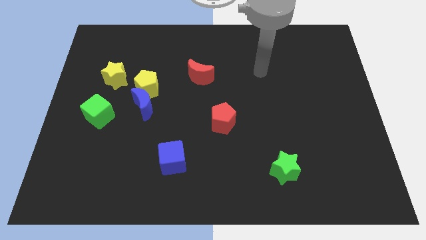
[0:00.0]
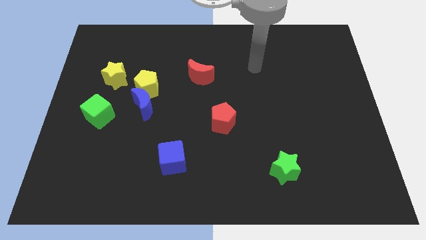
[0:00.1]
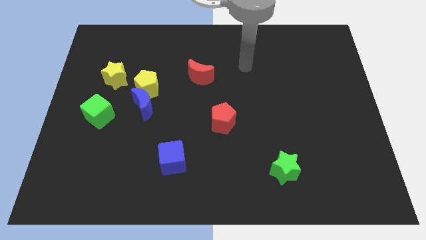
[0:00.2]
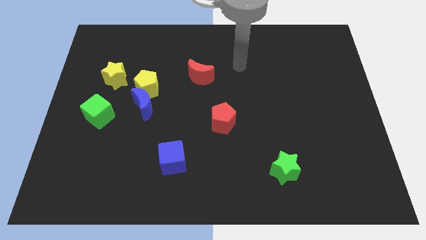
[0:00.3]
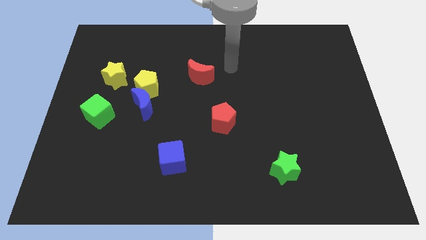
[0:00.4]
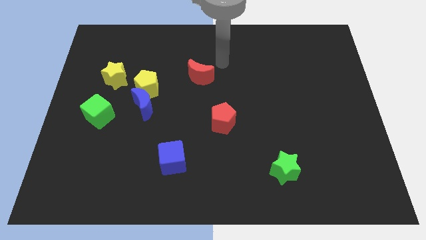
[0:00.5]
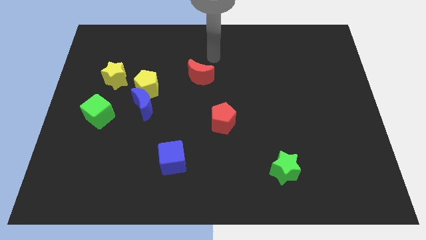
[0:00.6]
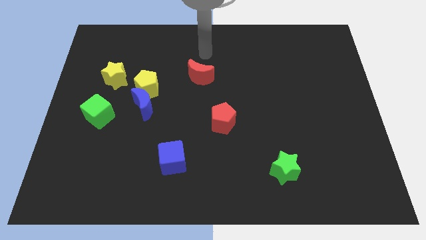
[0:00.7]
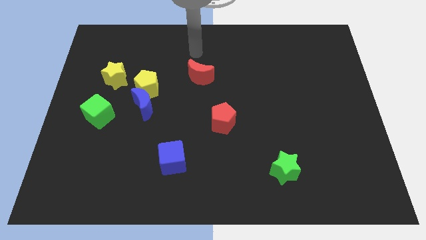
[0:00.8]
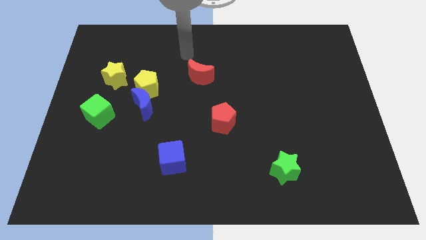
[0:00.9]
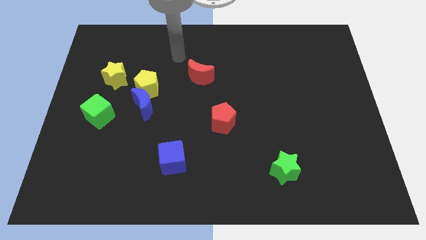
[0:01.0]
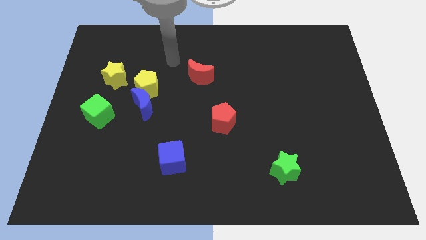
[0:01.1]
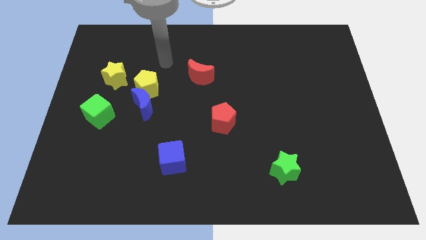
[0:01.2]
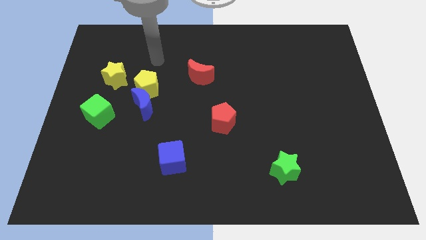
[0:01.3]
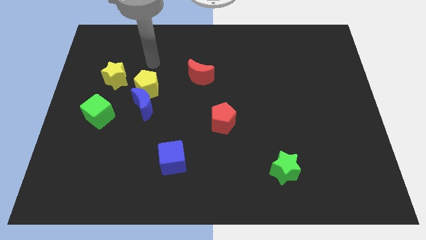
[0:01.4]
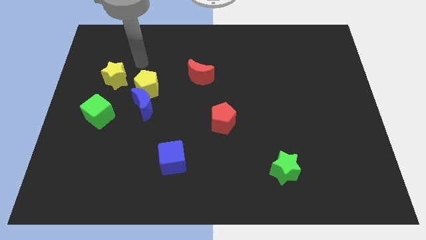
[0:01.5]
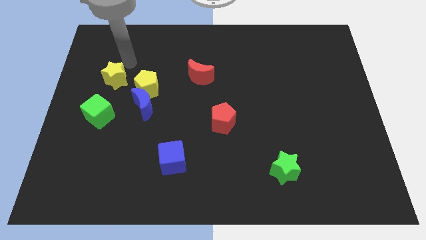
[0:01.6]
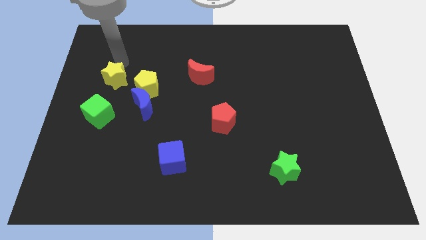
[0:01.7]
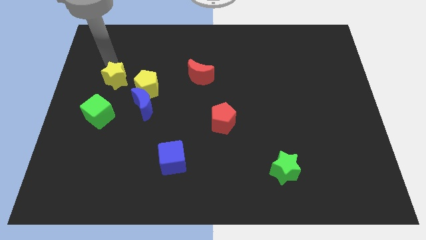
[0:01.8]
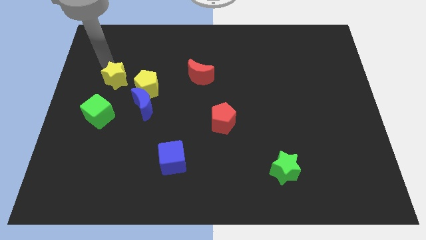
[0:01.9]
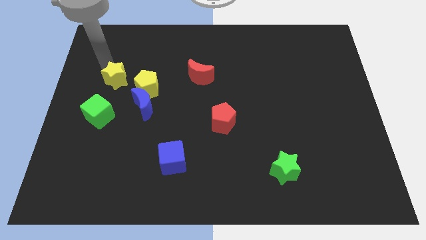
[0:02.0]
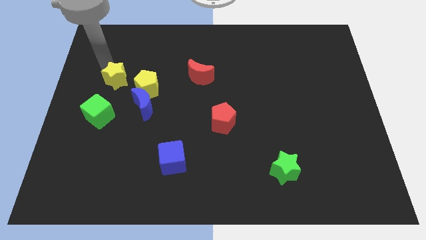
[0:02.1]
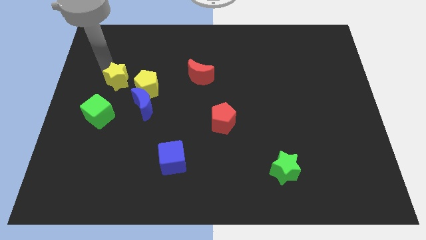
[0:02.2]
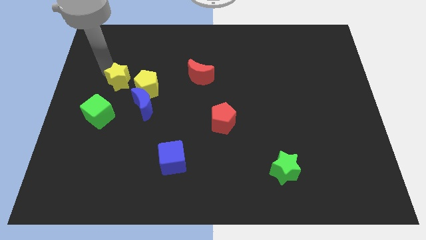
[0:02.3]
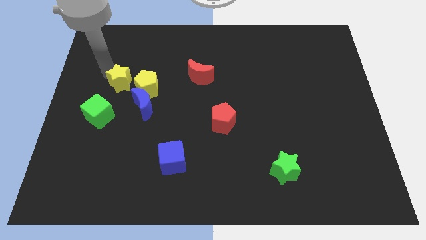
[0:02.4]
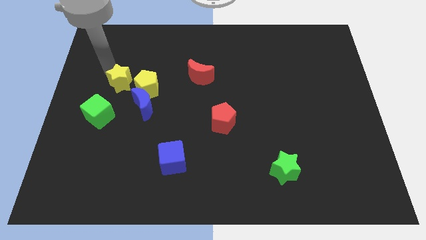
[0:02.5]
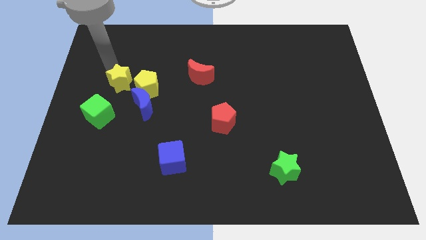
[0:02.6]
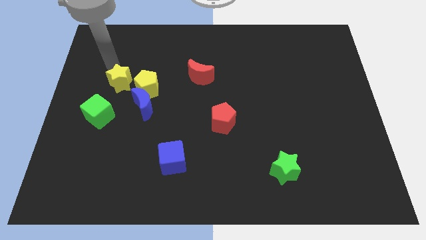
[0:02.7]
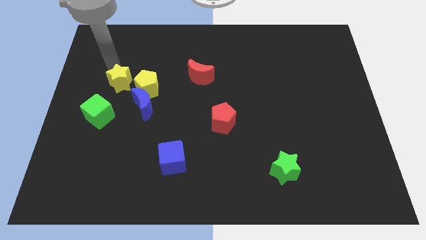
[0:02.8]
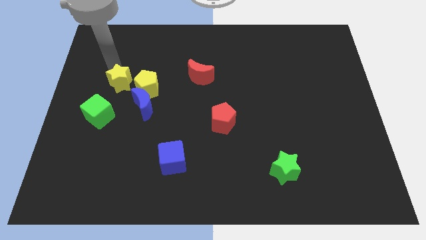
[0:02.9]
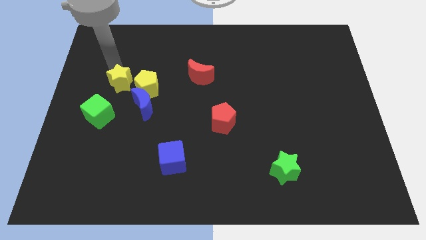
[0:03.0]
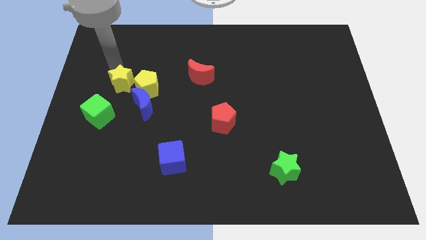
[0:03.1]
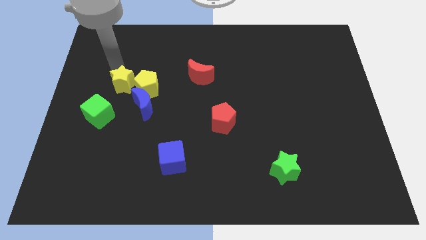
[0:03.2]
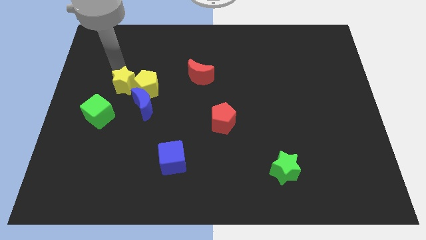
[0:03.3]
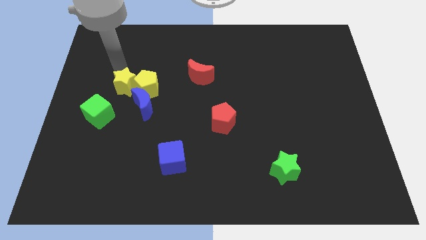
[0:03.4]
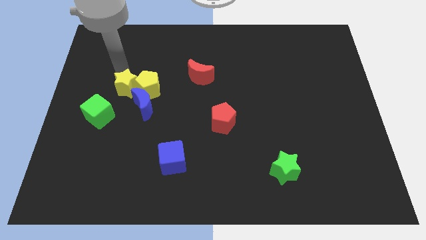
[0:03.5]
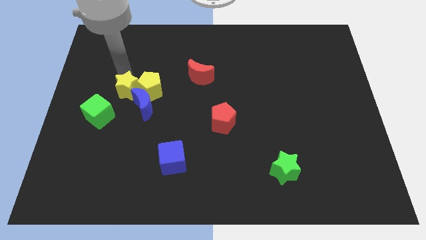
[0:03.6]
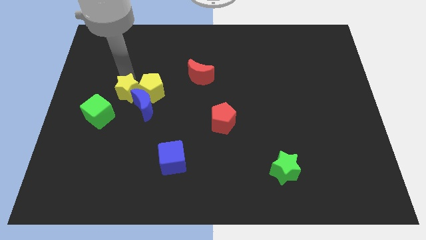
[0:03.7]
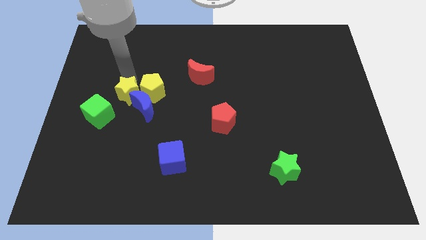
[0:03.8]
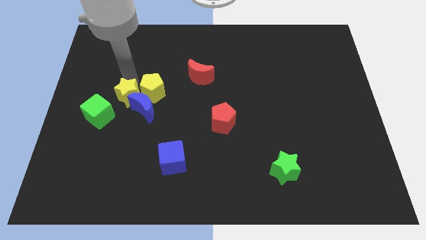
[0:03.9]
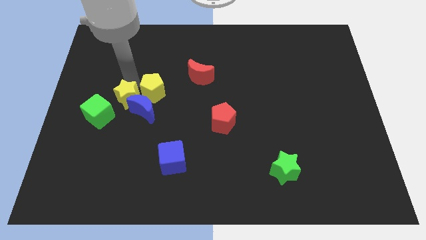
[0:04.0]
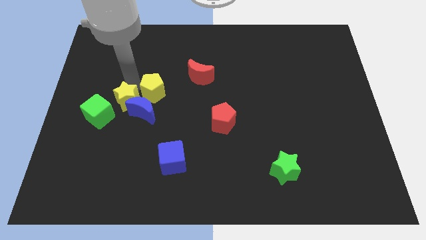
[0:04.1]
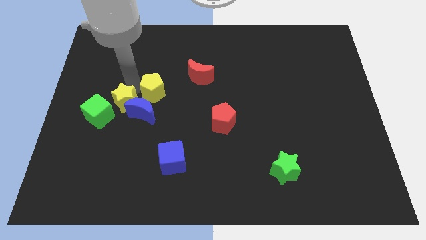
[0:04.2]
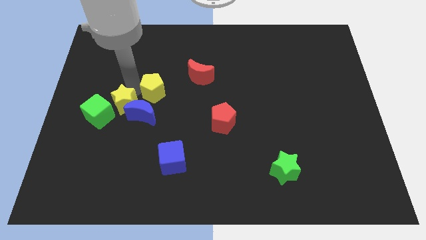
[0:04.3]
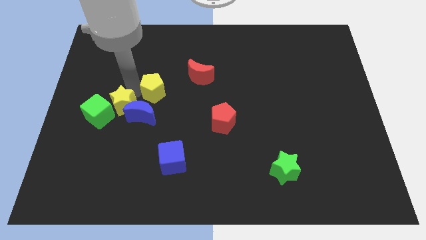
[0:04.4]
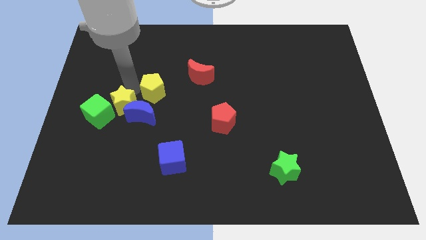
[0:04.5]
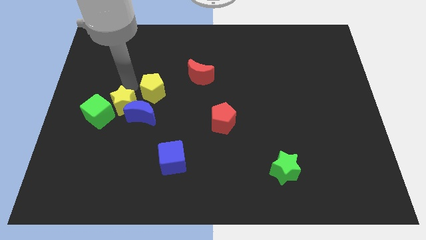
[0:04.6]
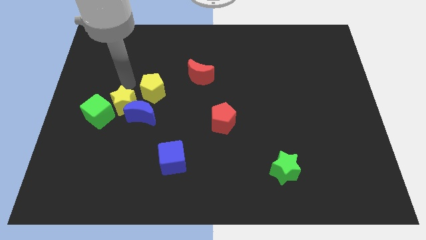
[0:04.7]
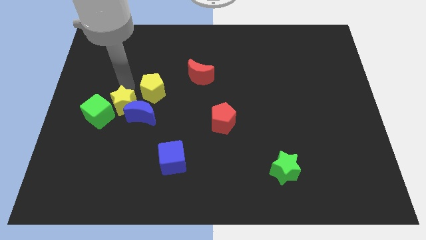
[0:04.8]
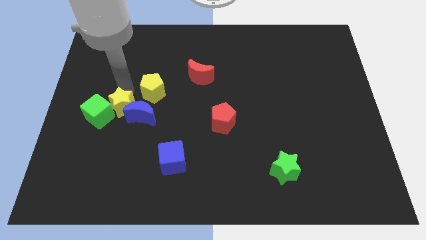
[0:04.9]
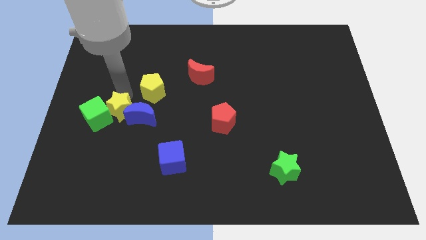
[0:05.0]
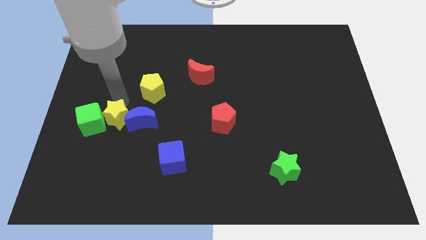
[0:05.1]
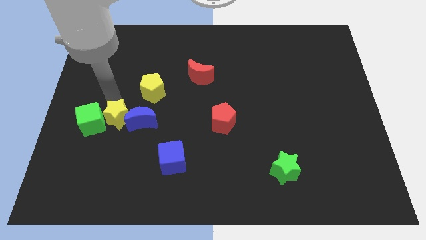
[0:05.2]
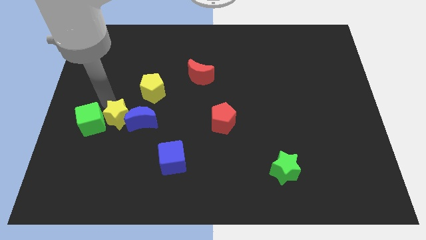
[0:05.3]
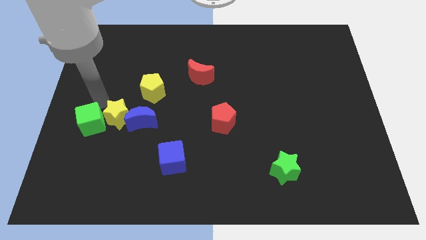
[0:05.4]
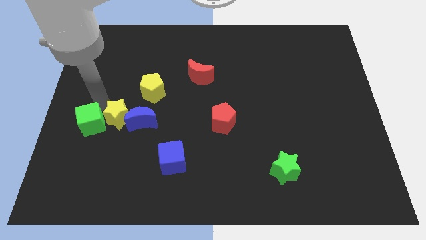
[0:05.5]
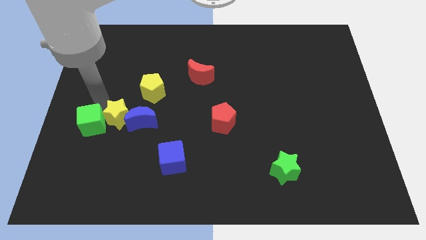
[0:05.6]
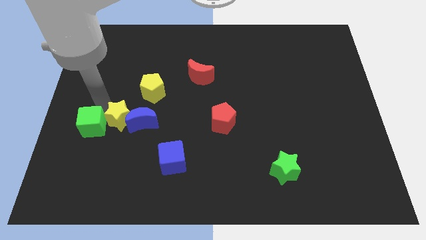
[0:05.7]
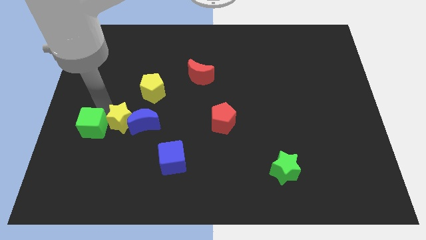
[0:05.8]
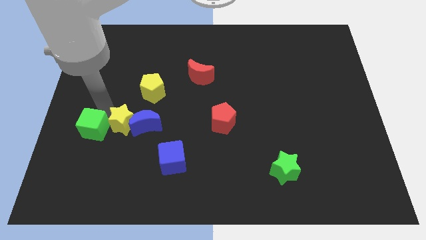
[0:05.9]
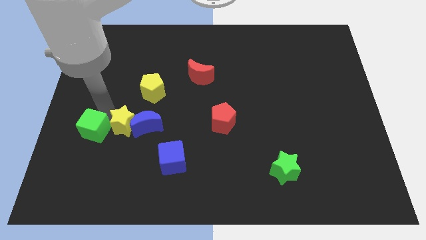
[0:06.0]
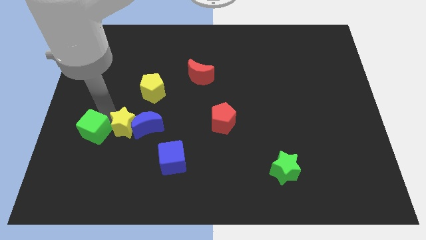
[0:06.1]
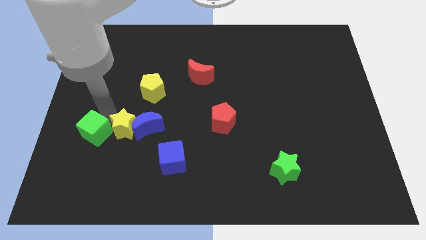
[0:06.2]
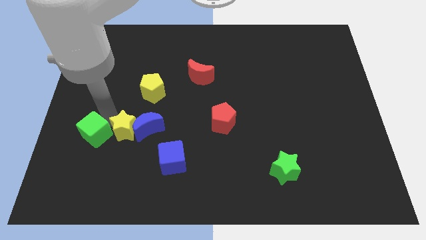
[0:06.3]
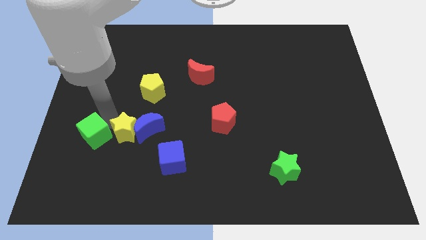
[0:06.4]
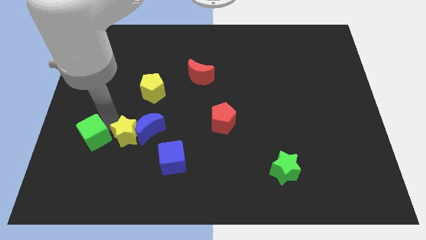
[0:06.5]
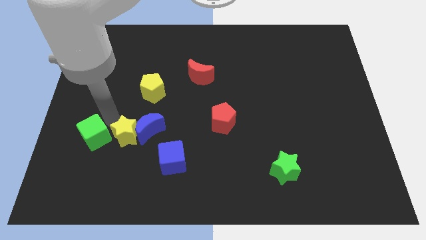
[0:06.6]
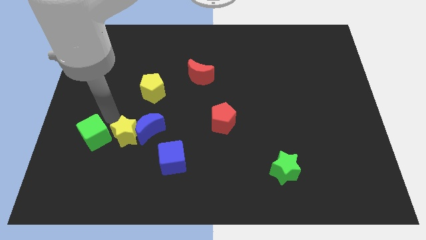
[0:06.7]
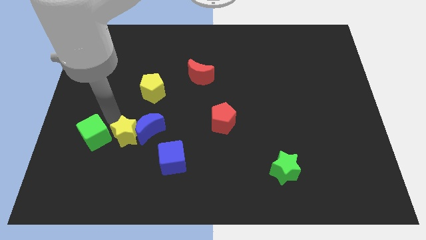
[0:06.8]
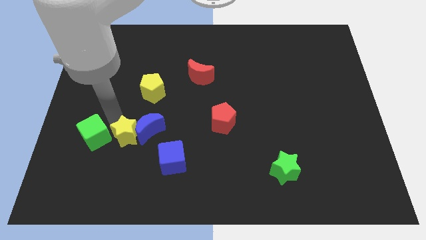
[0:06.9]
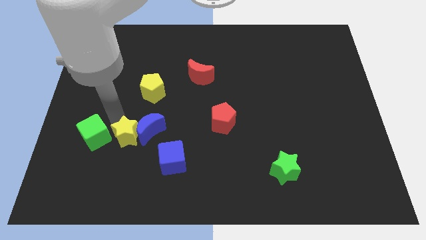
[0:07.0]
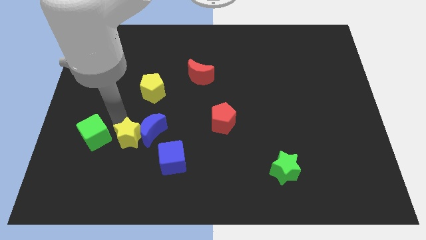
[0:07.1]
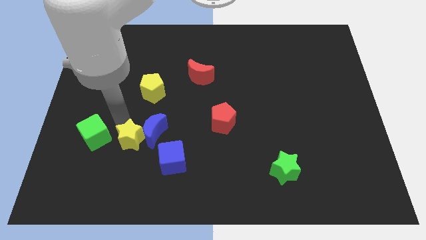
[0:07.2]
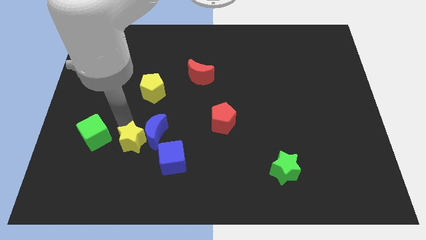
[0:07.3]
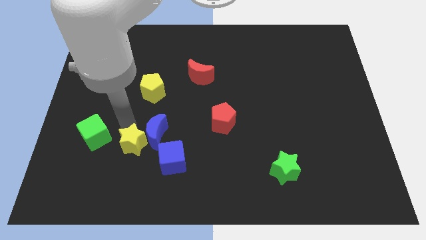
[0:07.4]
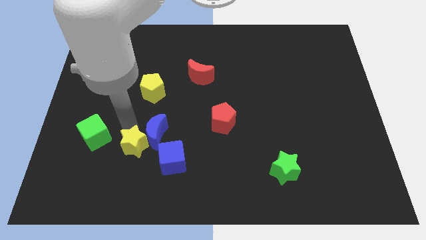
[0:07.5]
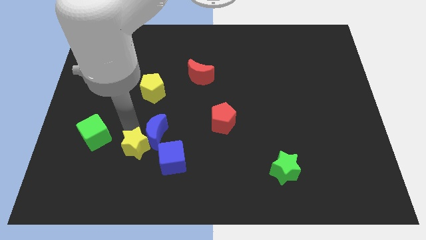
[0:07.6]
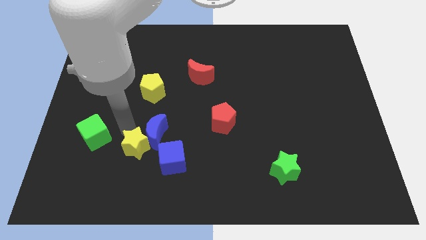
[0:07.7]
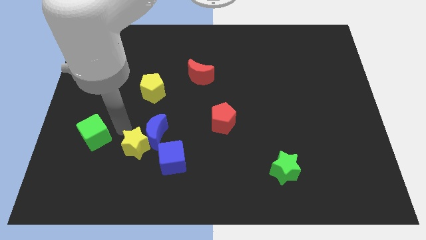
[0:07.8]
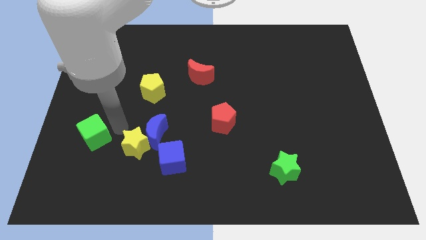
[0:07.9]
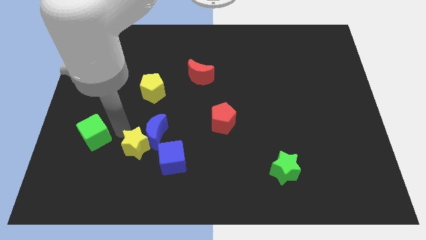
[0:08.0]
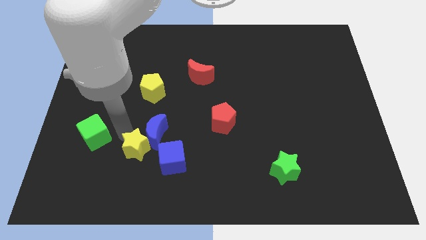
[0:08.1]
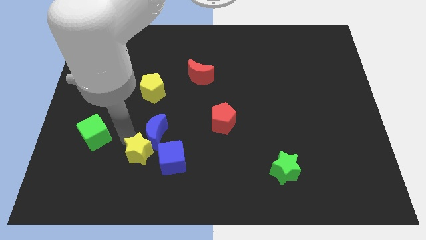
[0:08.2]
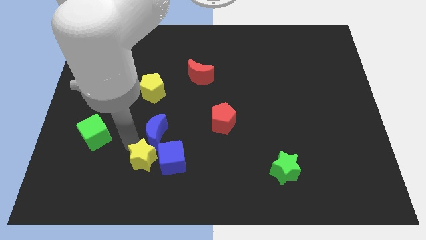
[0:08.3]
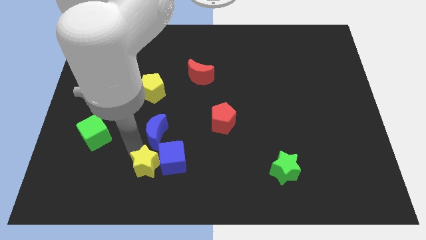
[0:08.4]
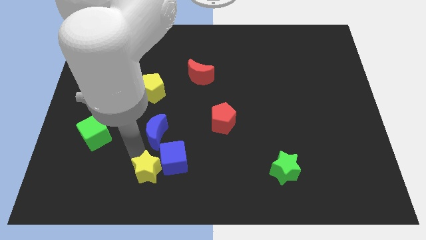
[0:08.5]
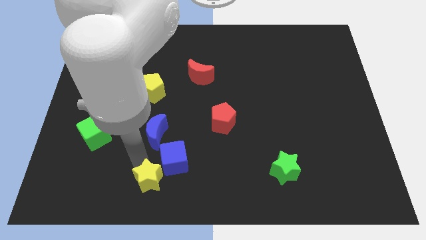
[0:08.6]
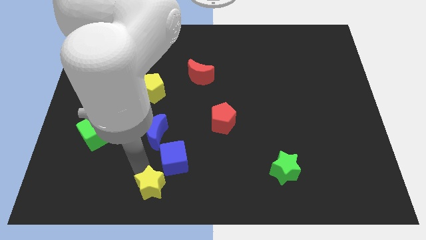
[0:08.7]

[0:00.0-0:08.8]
move the yellow star to the bottom
